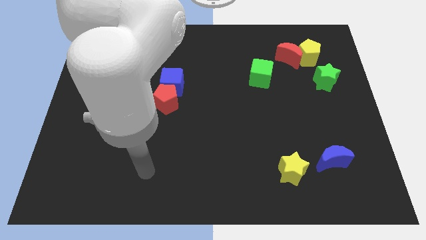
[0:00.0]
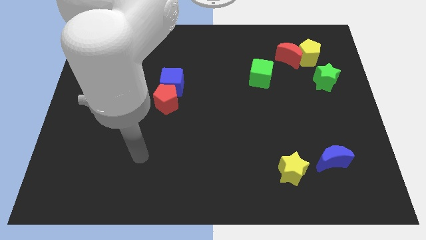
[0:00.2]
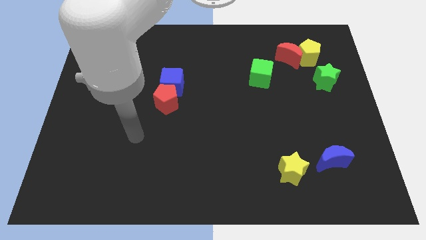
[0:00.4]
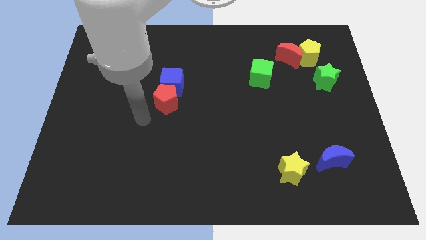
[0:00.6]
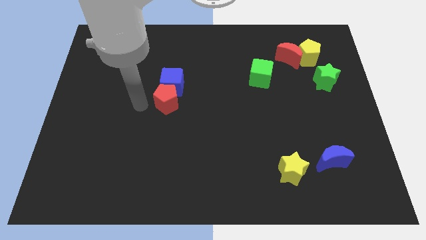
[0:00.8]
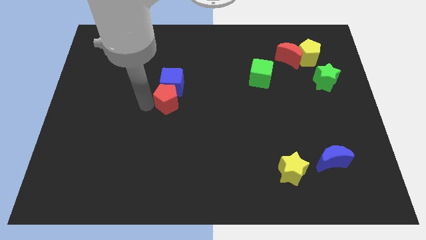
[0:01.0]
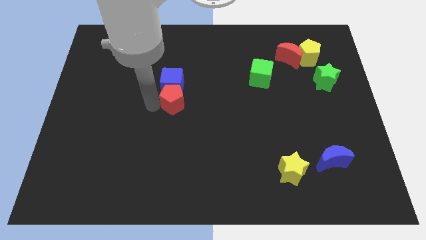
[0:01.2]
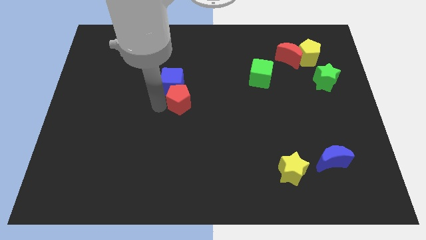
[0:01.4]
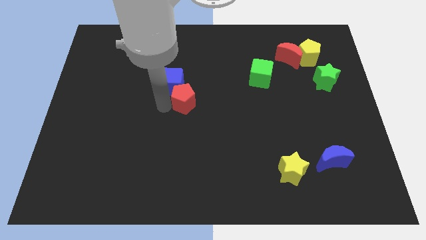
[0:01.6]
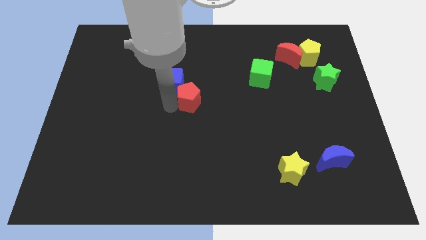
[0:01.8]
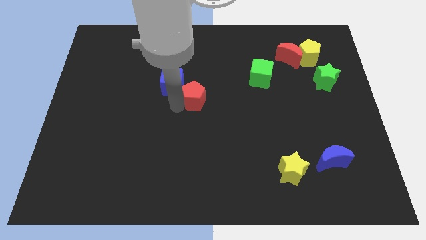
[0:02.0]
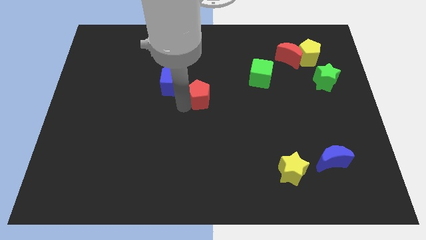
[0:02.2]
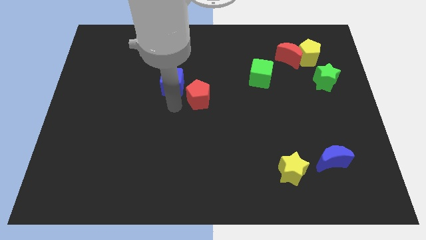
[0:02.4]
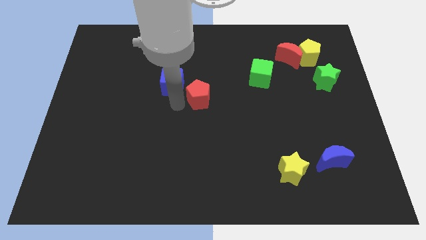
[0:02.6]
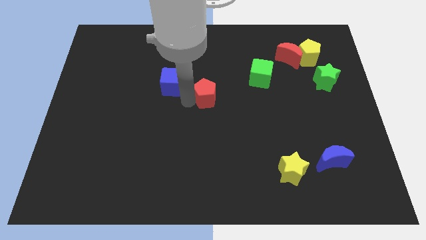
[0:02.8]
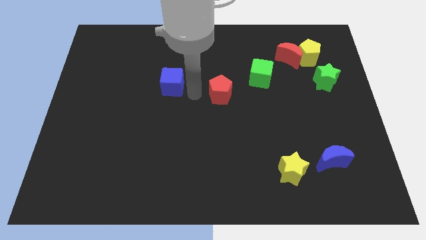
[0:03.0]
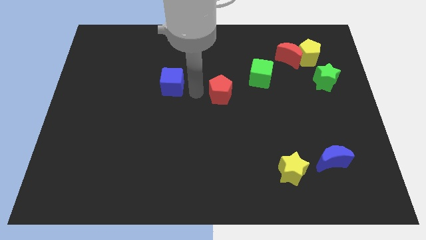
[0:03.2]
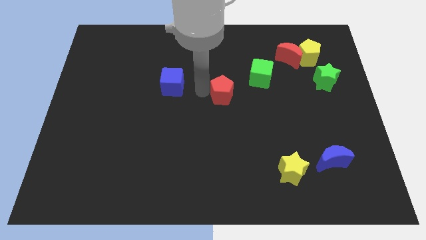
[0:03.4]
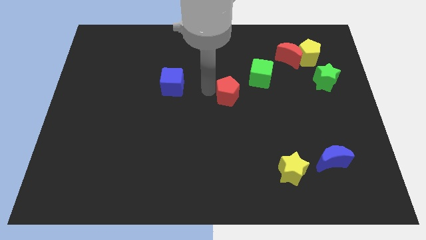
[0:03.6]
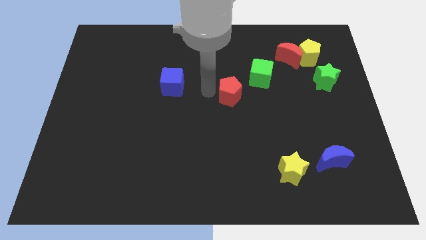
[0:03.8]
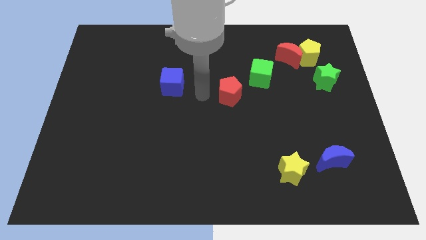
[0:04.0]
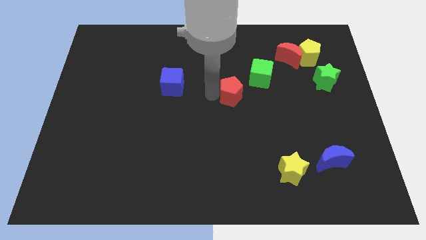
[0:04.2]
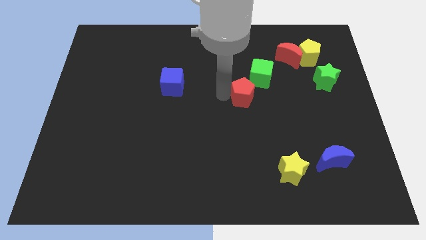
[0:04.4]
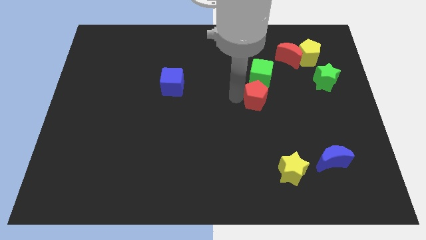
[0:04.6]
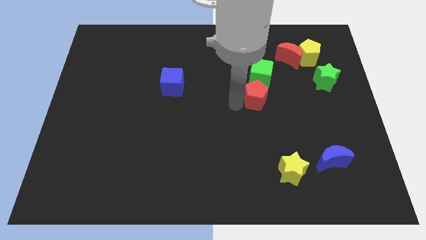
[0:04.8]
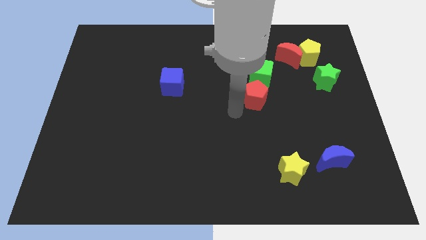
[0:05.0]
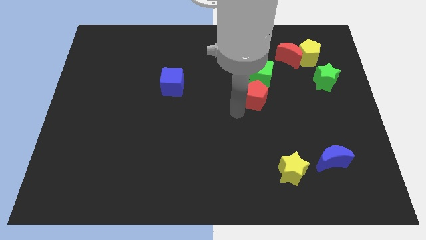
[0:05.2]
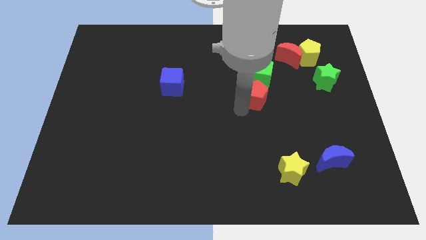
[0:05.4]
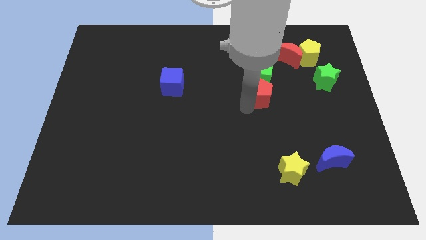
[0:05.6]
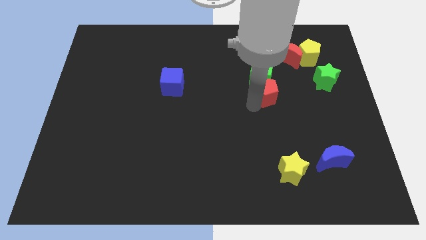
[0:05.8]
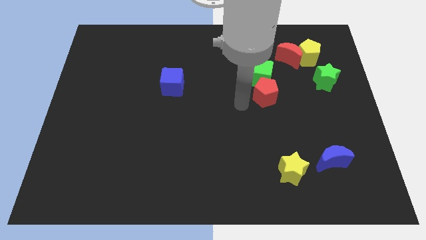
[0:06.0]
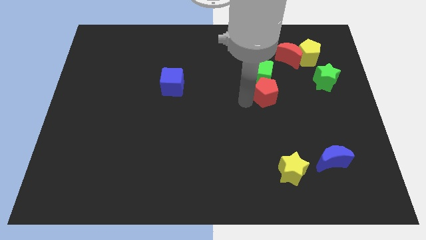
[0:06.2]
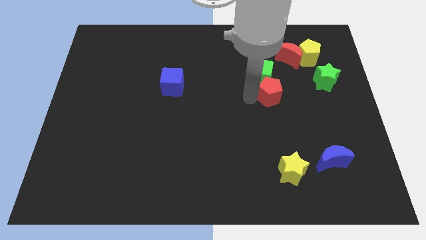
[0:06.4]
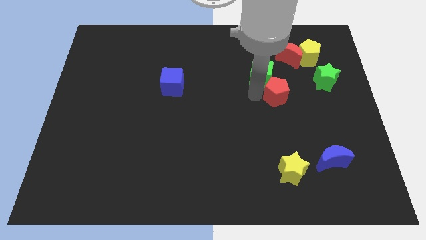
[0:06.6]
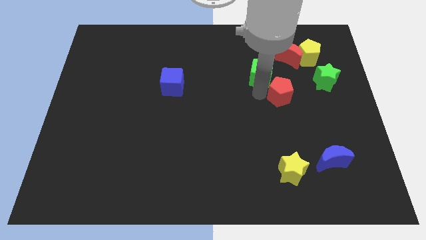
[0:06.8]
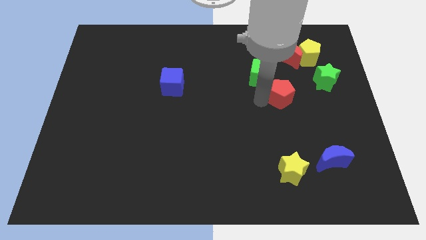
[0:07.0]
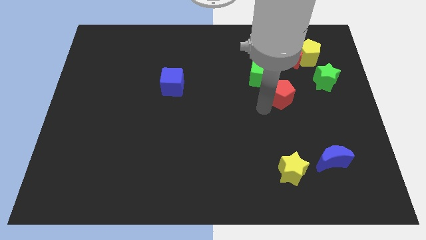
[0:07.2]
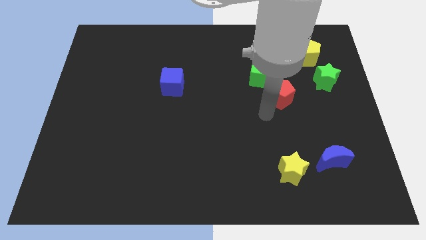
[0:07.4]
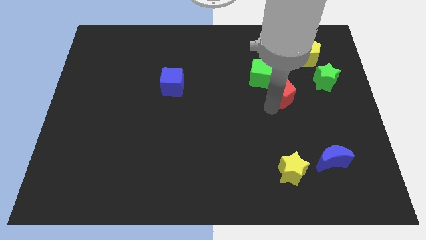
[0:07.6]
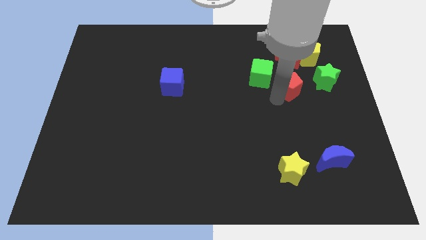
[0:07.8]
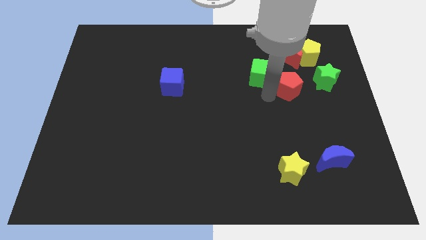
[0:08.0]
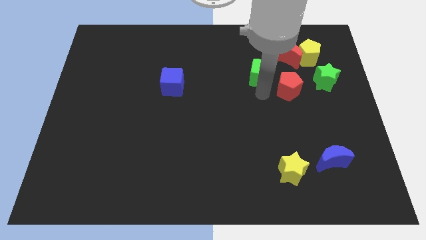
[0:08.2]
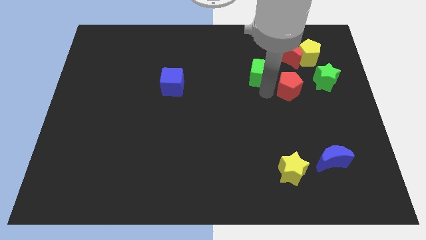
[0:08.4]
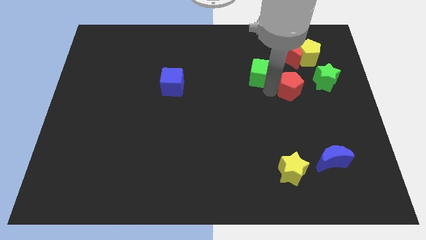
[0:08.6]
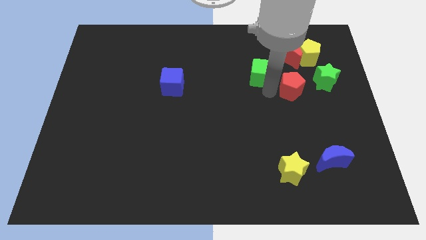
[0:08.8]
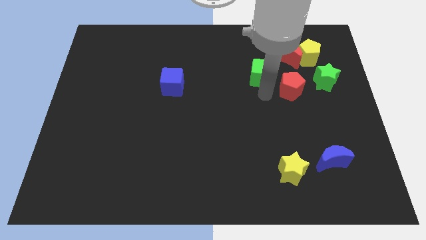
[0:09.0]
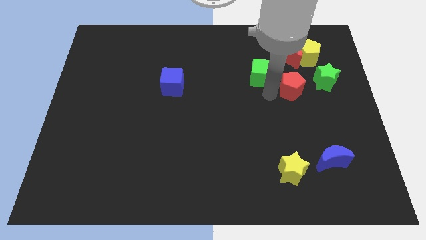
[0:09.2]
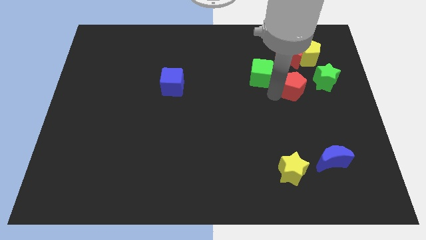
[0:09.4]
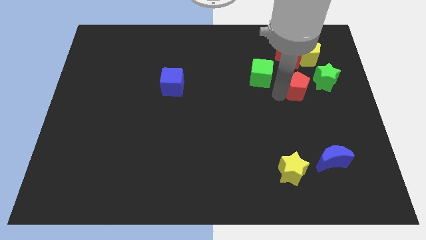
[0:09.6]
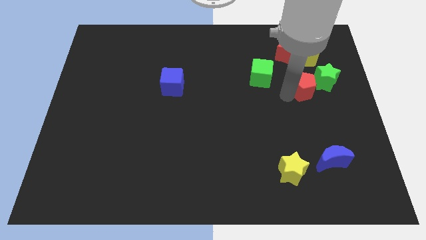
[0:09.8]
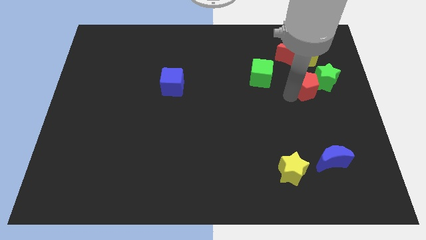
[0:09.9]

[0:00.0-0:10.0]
push the red pentagon next to the green star

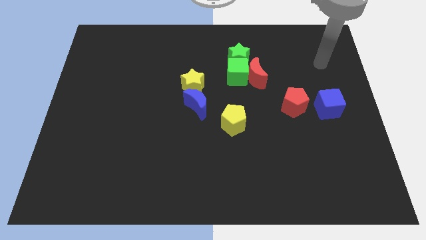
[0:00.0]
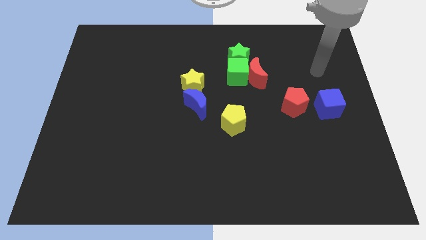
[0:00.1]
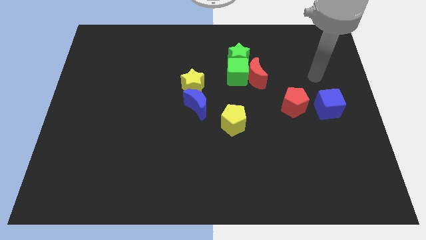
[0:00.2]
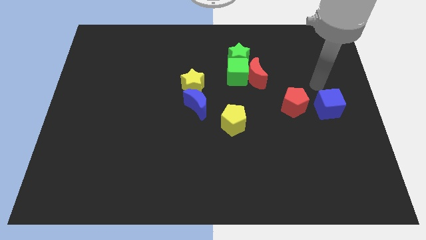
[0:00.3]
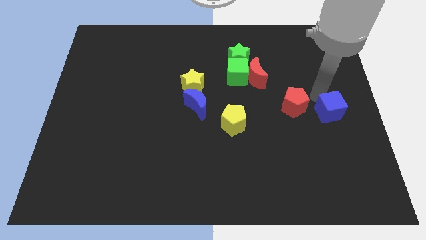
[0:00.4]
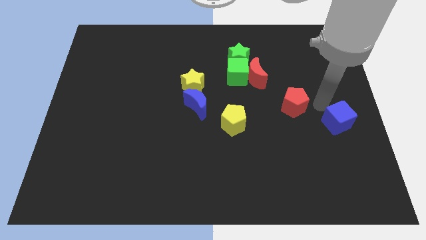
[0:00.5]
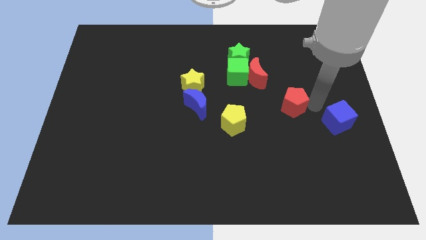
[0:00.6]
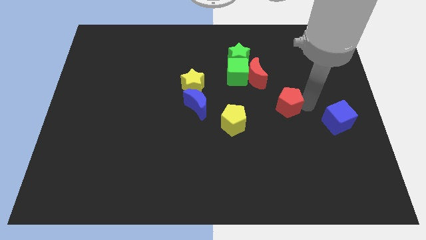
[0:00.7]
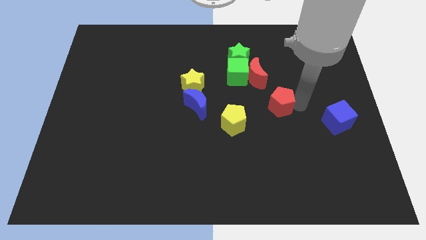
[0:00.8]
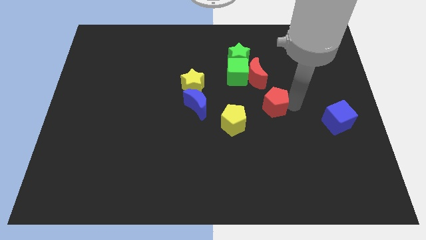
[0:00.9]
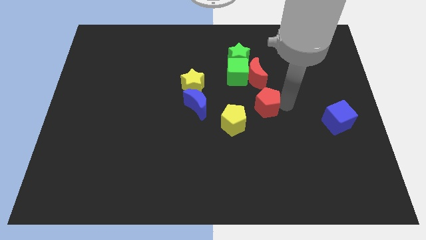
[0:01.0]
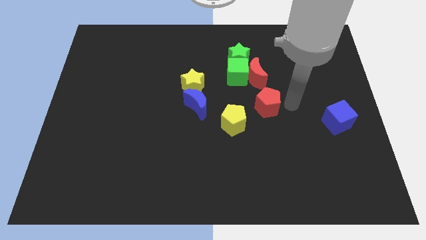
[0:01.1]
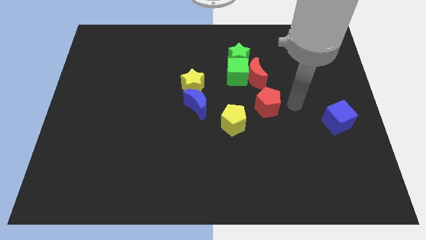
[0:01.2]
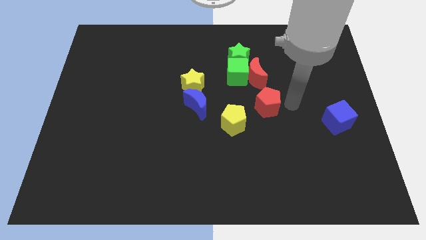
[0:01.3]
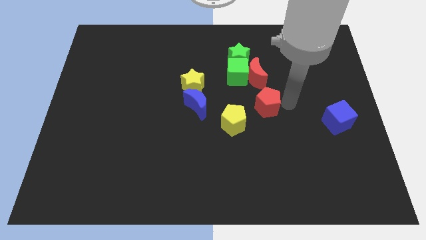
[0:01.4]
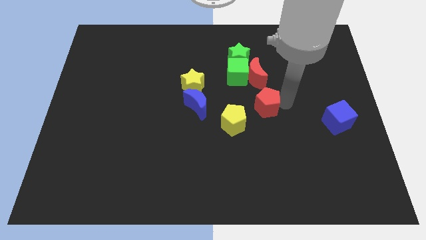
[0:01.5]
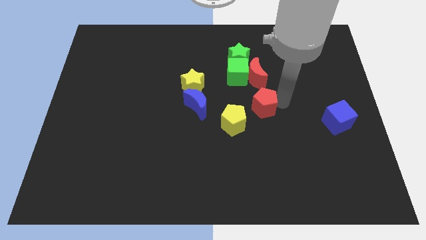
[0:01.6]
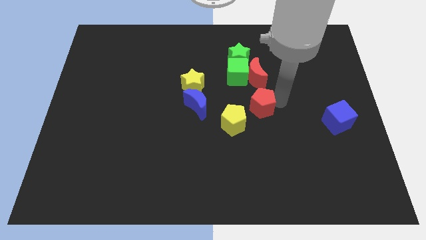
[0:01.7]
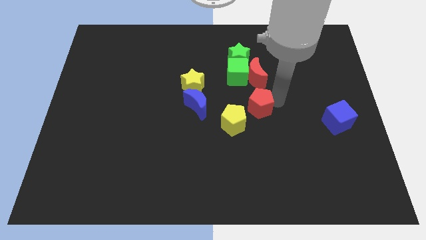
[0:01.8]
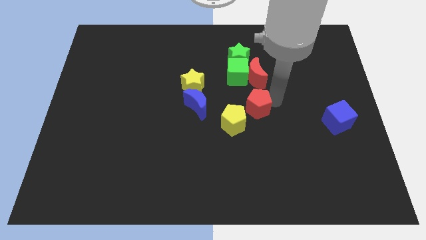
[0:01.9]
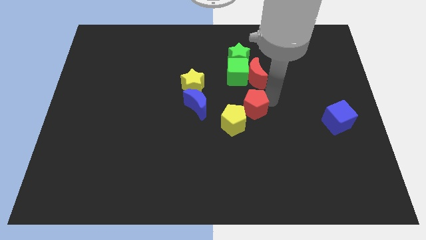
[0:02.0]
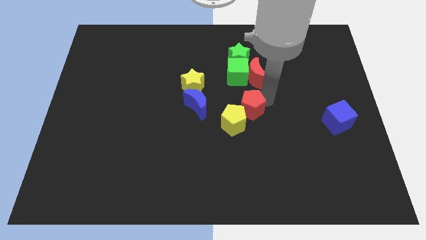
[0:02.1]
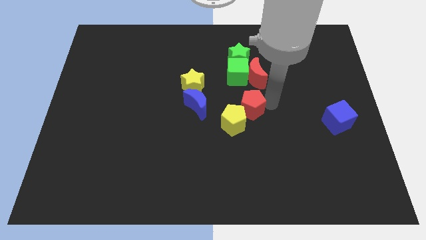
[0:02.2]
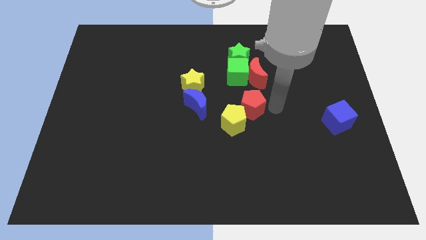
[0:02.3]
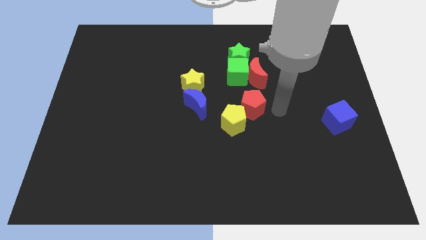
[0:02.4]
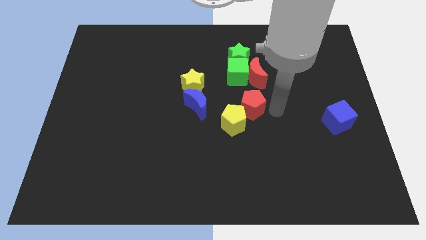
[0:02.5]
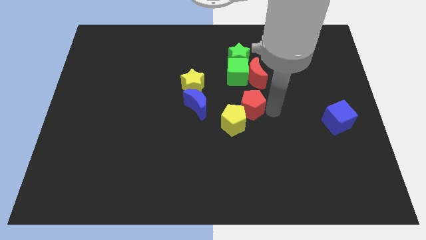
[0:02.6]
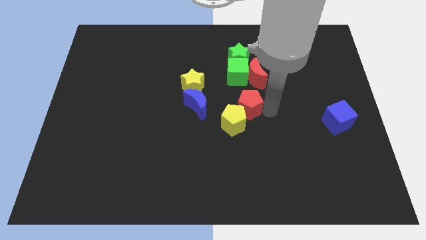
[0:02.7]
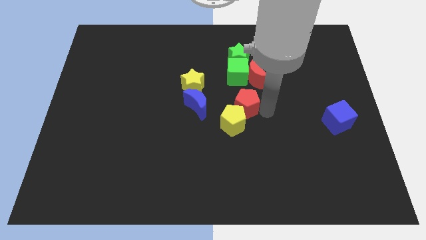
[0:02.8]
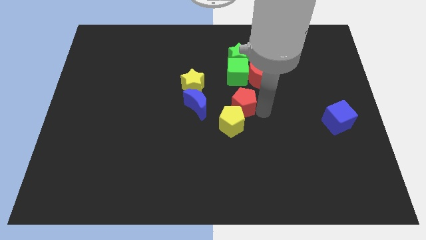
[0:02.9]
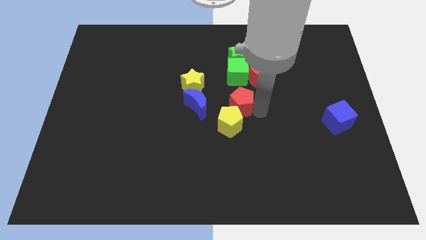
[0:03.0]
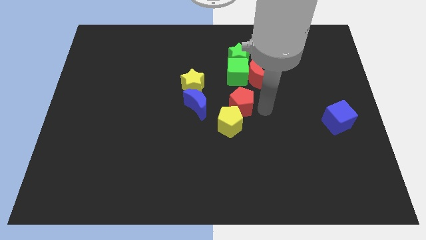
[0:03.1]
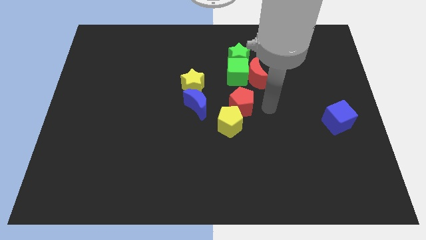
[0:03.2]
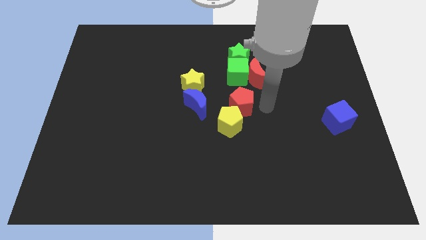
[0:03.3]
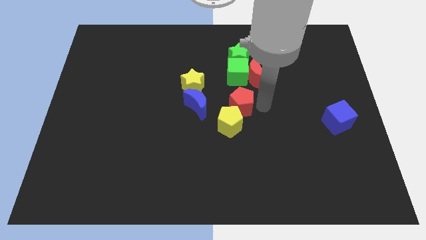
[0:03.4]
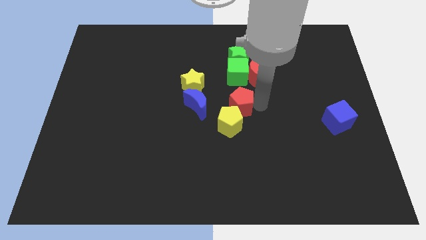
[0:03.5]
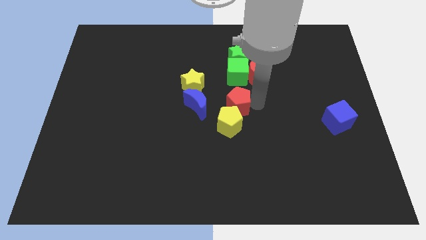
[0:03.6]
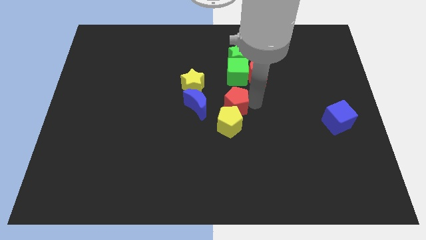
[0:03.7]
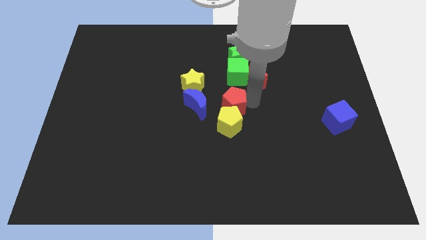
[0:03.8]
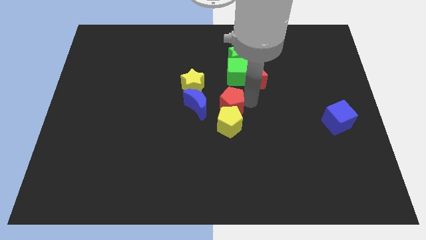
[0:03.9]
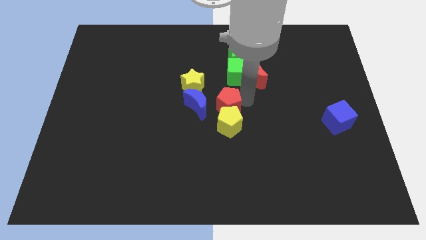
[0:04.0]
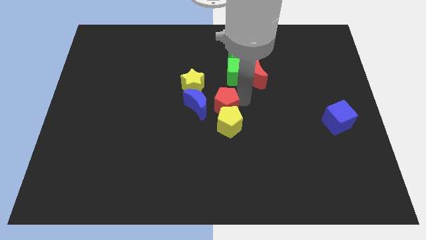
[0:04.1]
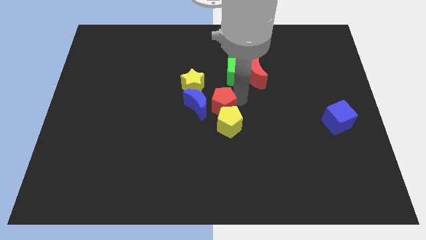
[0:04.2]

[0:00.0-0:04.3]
move the red pentagon to the blue moon
